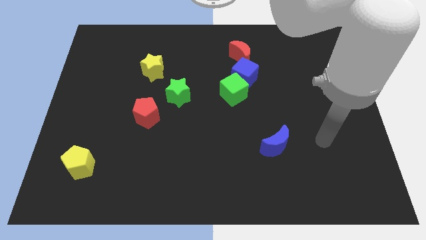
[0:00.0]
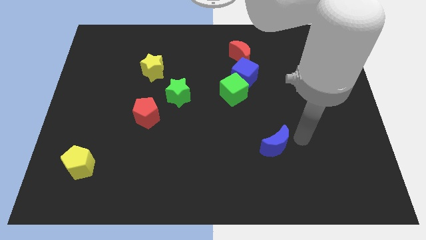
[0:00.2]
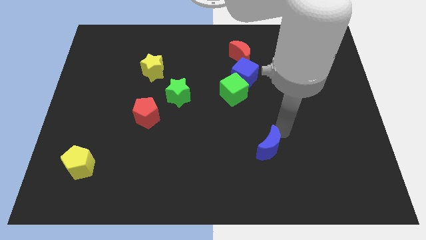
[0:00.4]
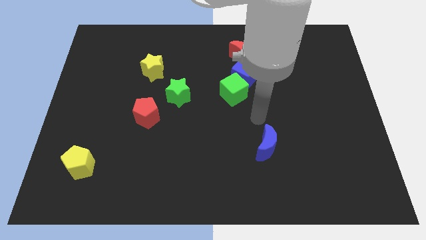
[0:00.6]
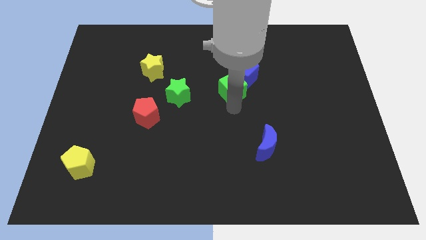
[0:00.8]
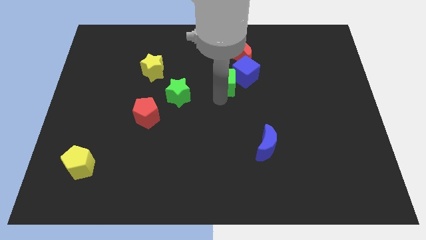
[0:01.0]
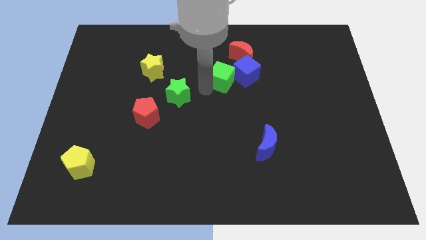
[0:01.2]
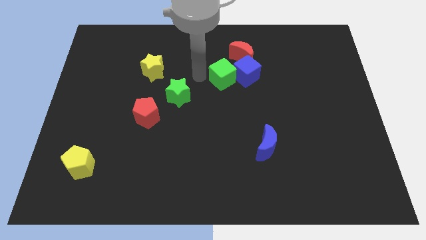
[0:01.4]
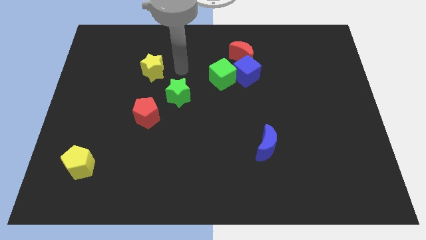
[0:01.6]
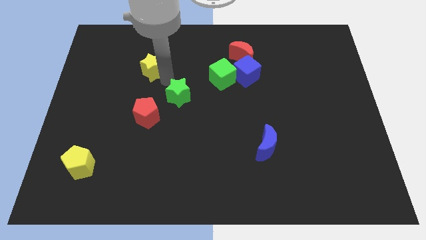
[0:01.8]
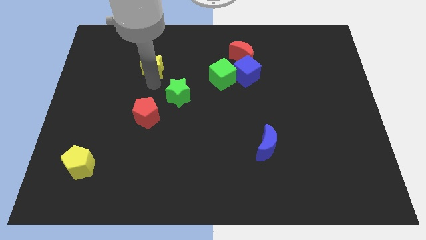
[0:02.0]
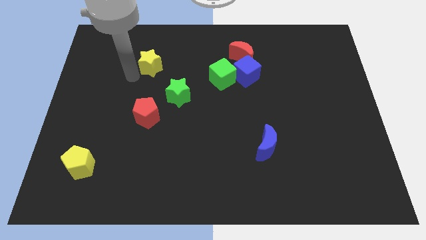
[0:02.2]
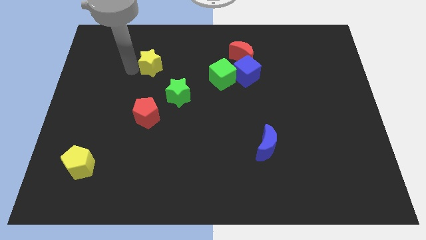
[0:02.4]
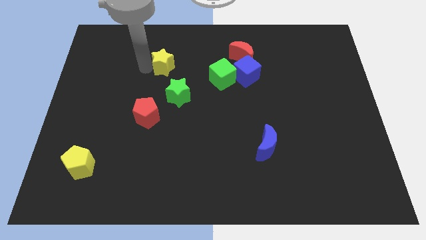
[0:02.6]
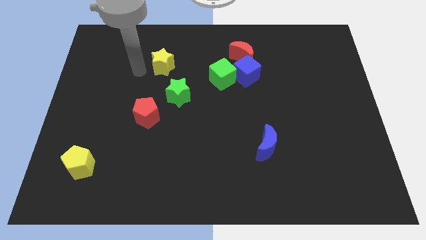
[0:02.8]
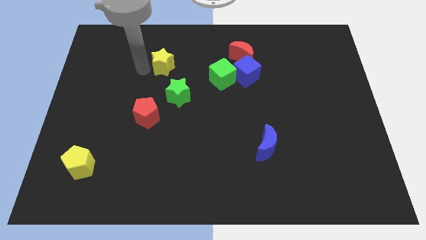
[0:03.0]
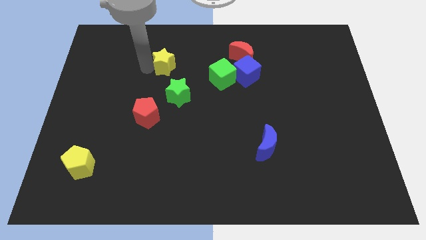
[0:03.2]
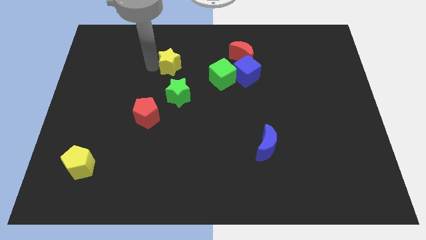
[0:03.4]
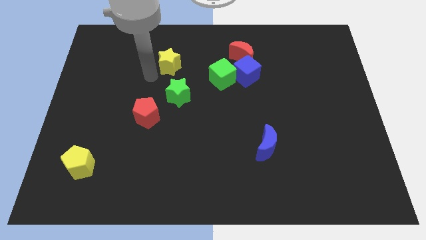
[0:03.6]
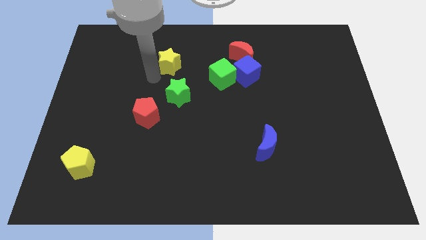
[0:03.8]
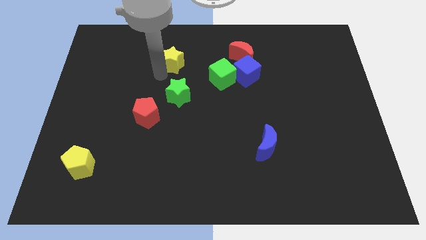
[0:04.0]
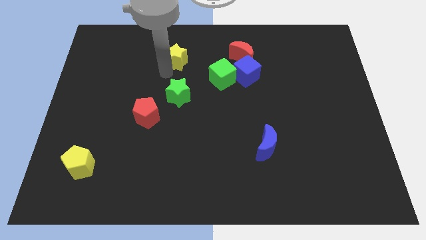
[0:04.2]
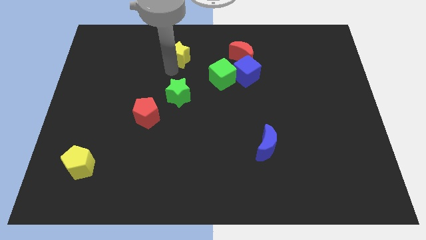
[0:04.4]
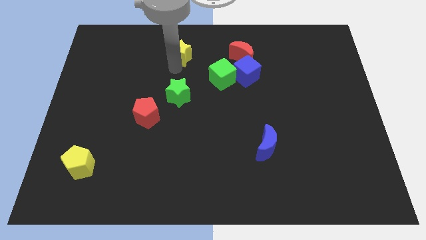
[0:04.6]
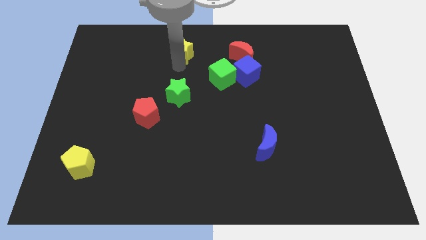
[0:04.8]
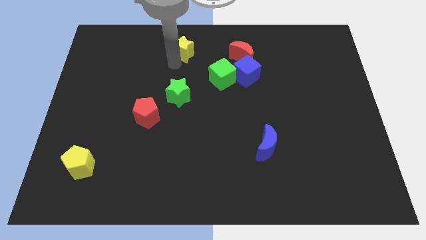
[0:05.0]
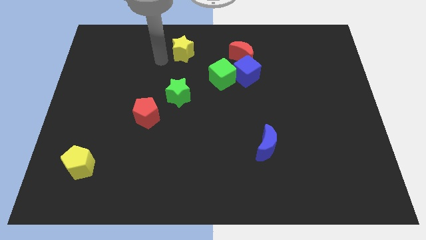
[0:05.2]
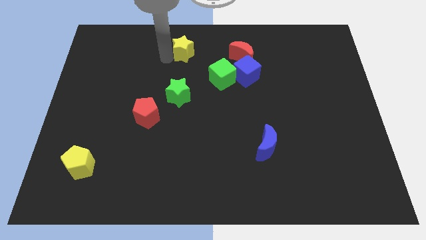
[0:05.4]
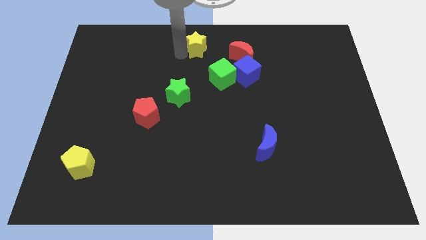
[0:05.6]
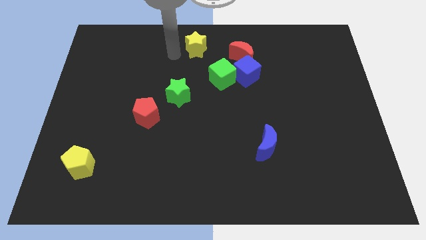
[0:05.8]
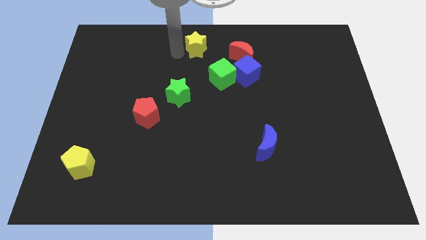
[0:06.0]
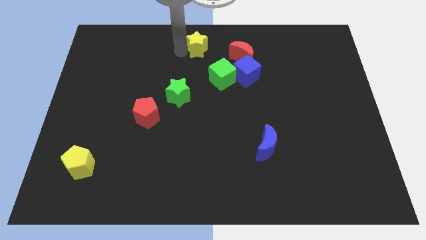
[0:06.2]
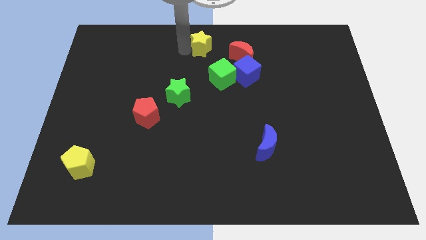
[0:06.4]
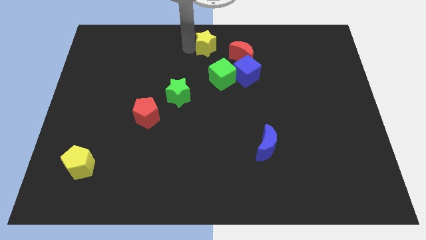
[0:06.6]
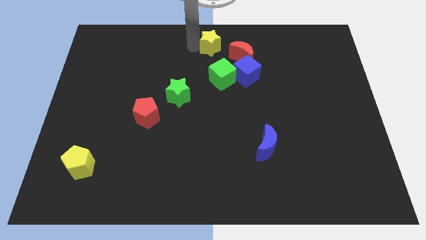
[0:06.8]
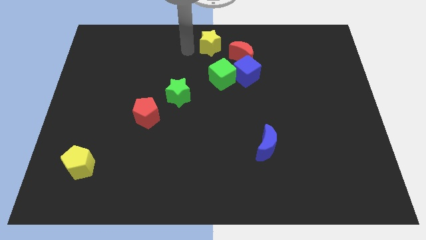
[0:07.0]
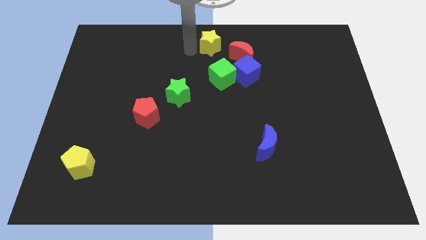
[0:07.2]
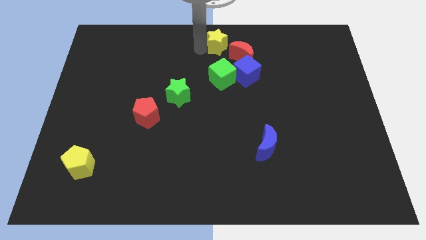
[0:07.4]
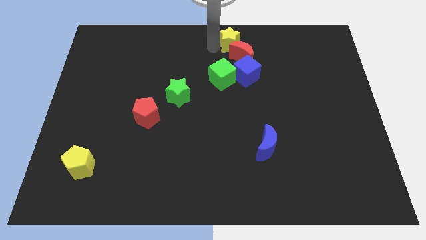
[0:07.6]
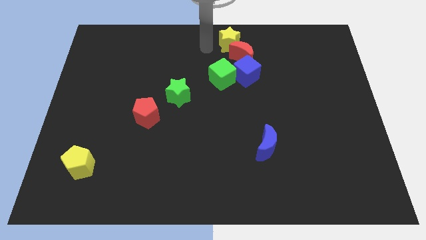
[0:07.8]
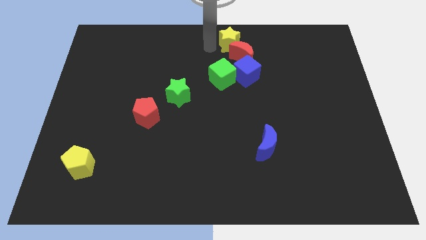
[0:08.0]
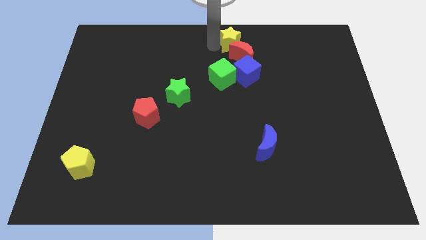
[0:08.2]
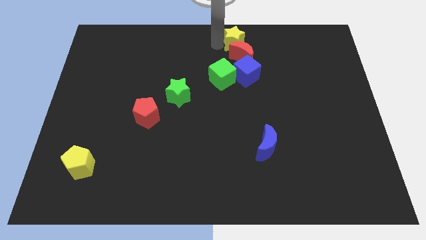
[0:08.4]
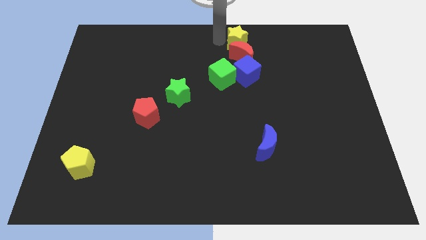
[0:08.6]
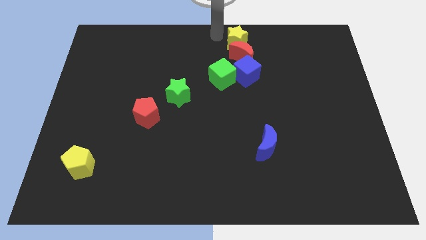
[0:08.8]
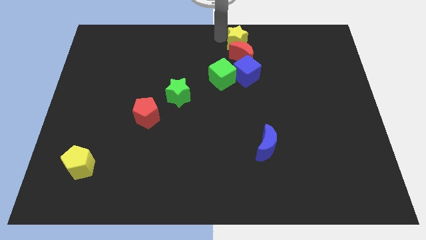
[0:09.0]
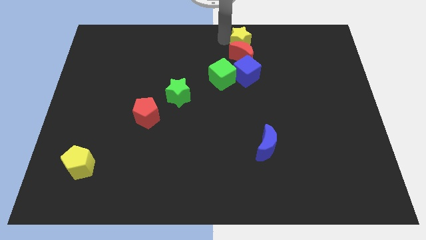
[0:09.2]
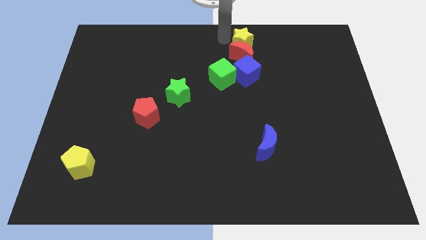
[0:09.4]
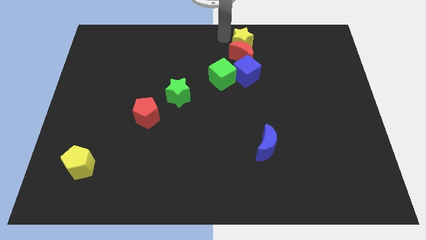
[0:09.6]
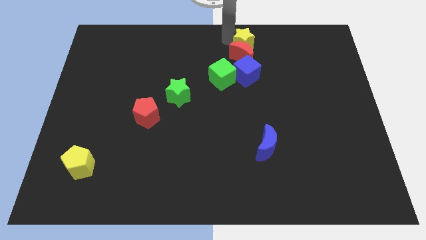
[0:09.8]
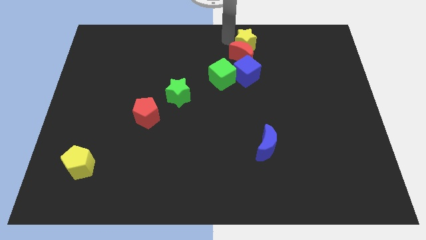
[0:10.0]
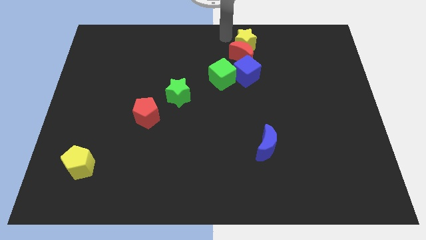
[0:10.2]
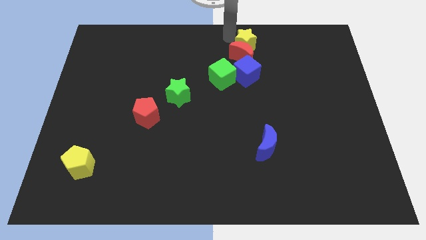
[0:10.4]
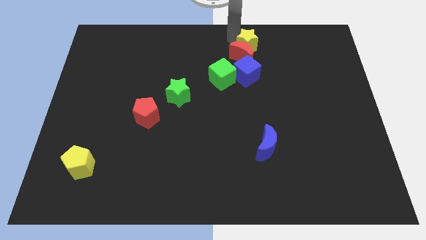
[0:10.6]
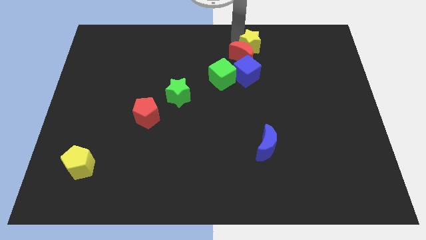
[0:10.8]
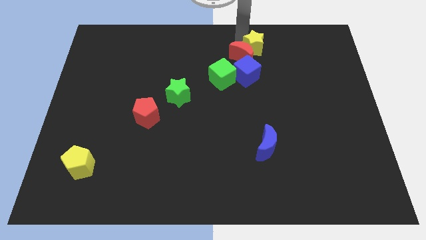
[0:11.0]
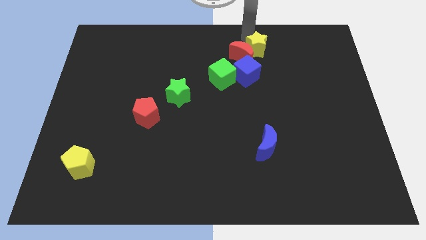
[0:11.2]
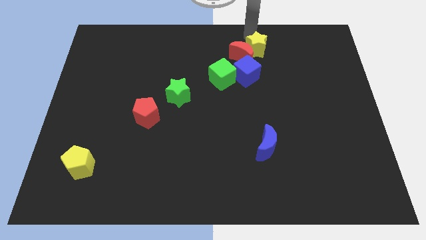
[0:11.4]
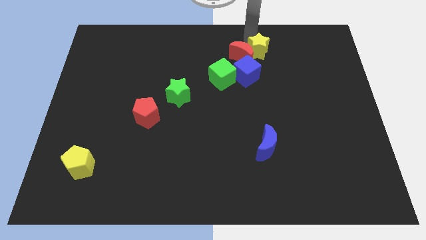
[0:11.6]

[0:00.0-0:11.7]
put the yellow star to the bottom right side of the red moon

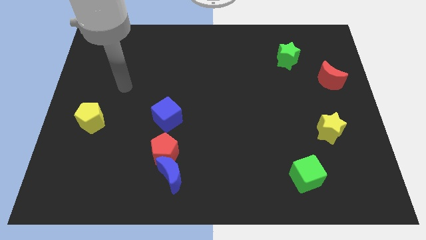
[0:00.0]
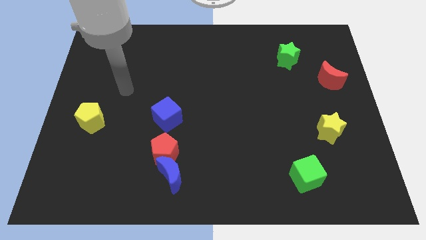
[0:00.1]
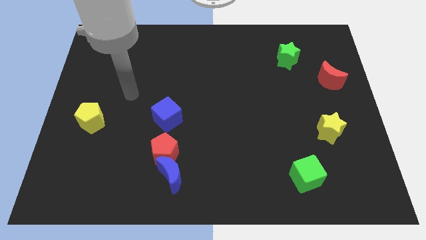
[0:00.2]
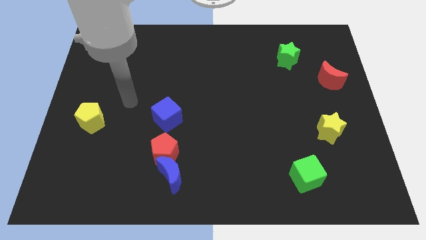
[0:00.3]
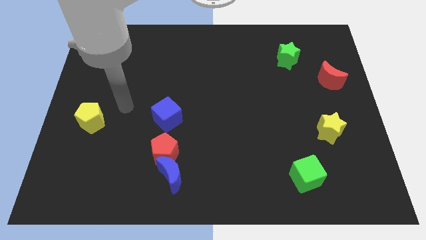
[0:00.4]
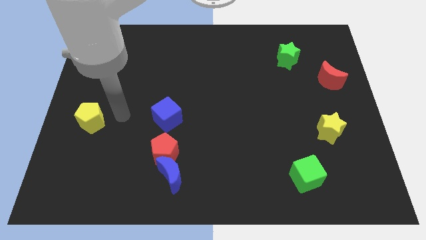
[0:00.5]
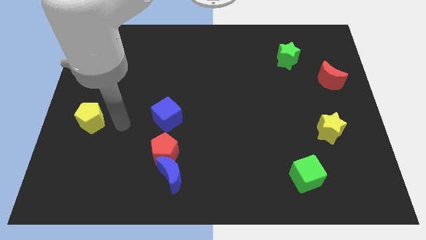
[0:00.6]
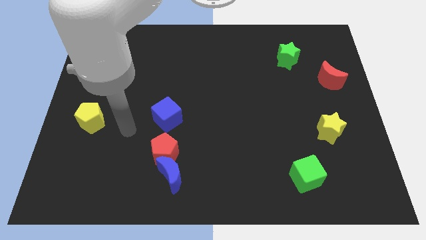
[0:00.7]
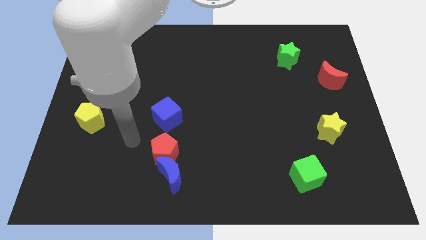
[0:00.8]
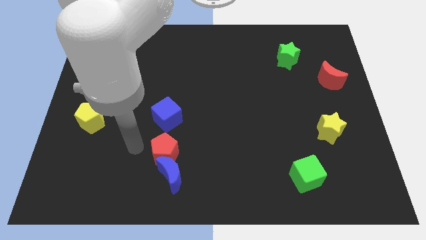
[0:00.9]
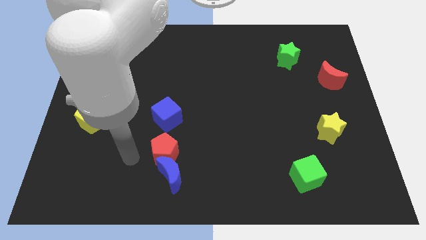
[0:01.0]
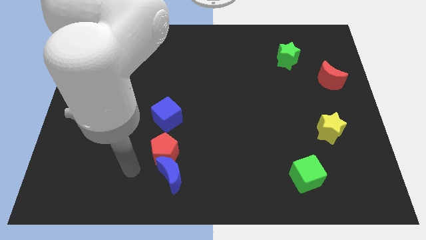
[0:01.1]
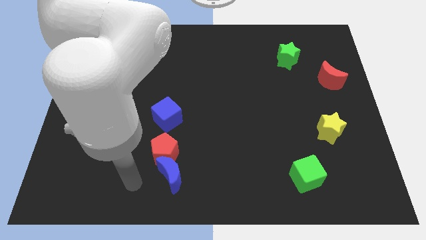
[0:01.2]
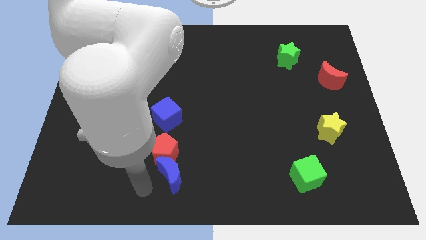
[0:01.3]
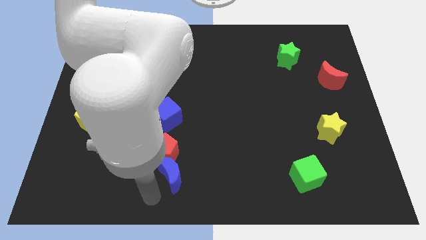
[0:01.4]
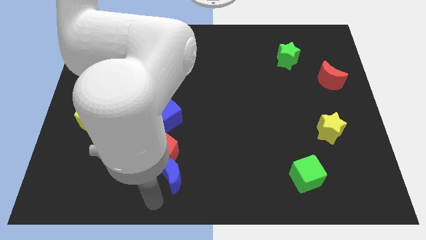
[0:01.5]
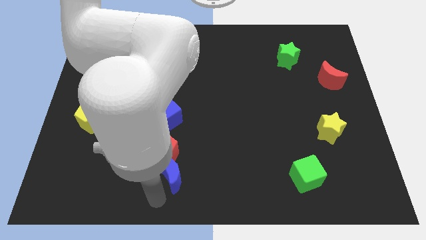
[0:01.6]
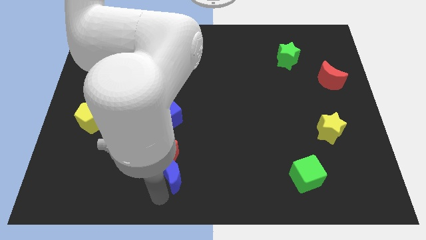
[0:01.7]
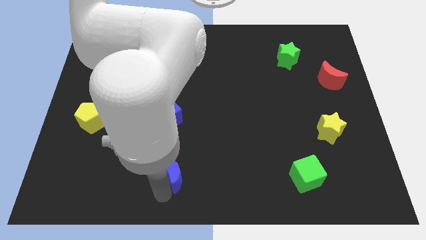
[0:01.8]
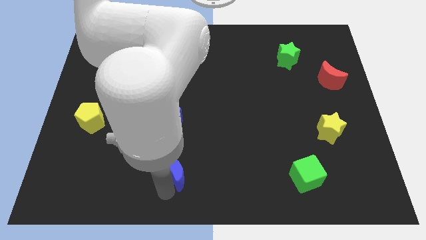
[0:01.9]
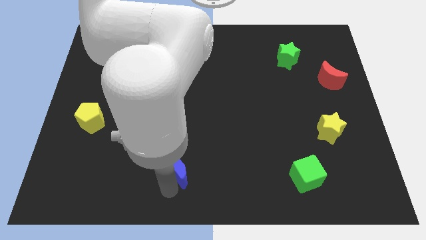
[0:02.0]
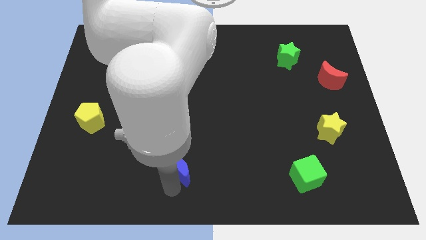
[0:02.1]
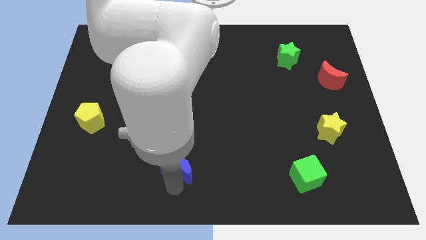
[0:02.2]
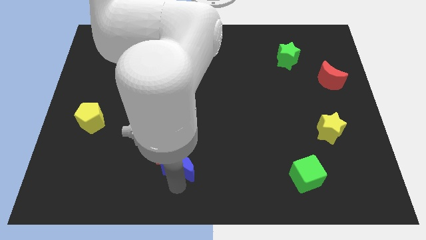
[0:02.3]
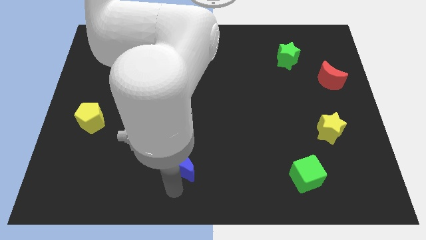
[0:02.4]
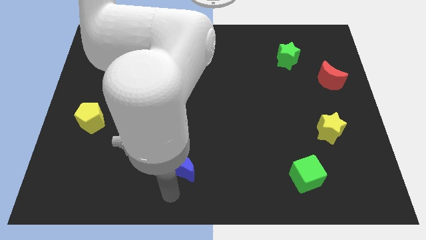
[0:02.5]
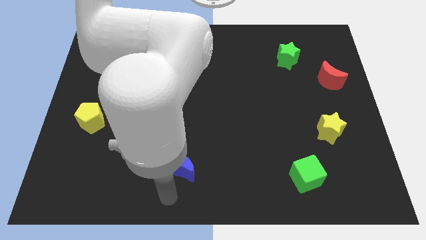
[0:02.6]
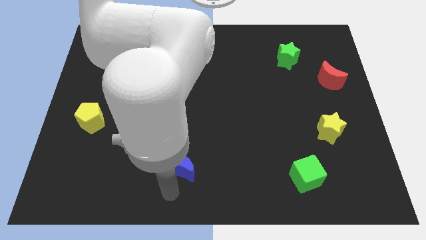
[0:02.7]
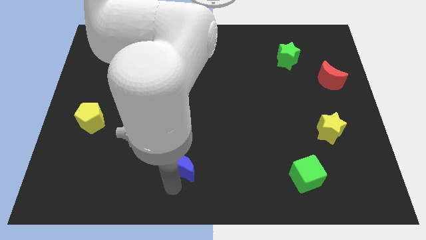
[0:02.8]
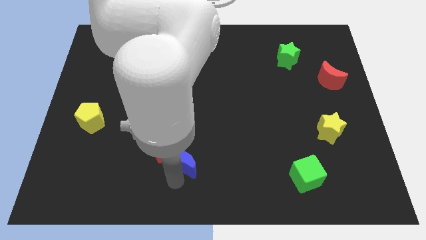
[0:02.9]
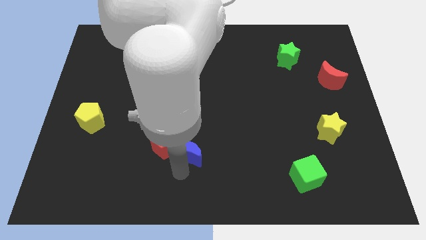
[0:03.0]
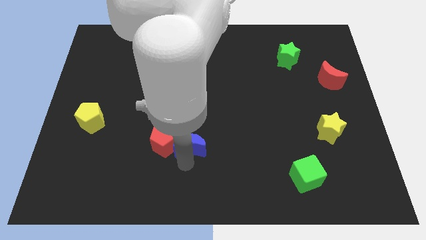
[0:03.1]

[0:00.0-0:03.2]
move the blue moon diagonally up and to the right of the red pentagon
